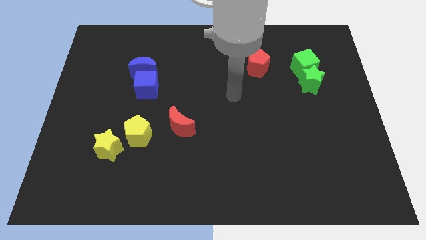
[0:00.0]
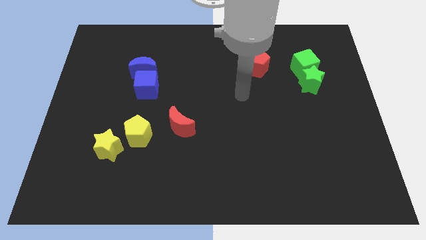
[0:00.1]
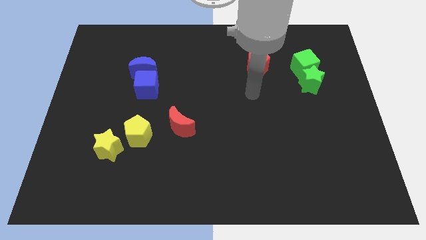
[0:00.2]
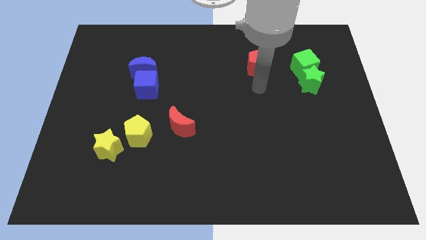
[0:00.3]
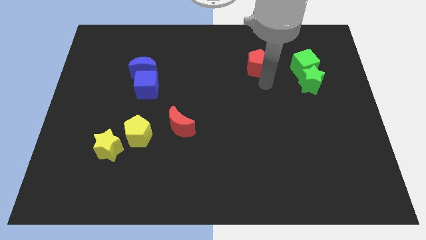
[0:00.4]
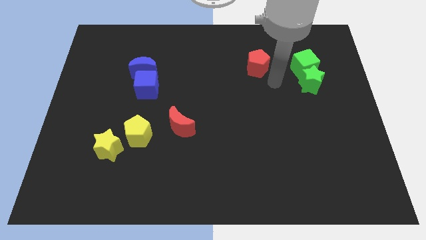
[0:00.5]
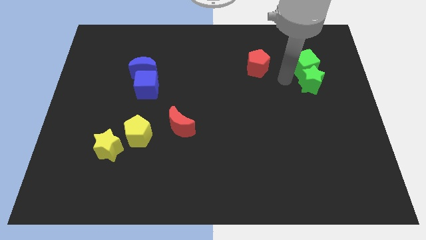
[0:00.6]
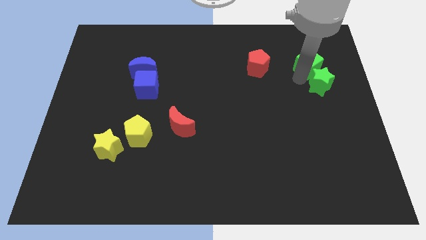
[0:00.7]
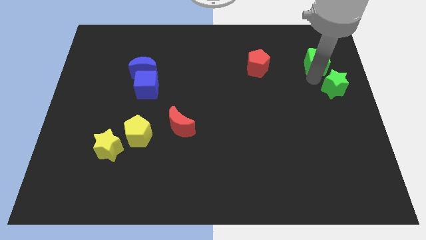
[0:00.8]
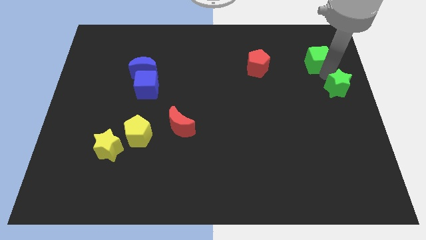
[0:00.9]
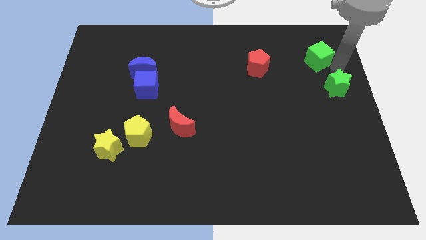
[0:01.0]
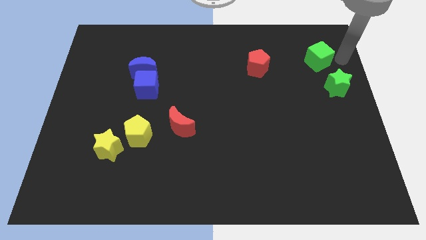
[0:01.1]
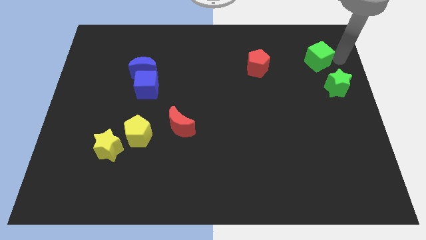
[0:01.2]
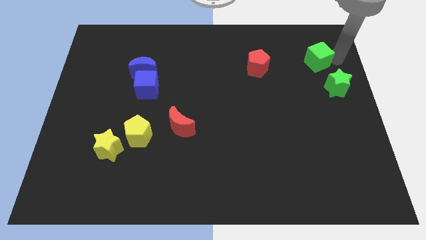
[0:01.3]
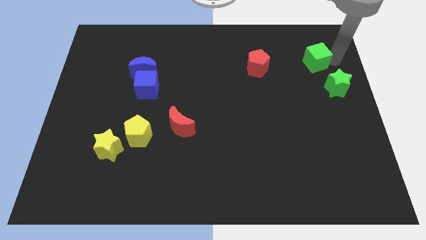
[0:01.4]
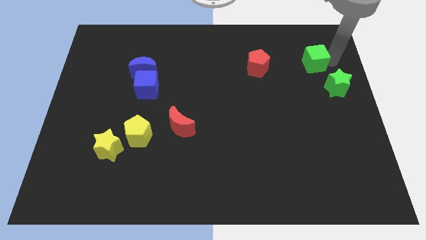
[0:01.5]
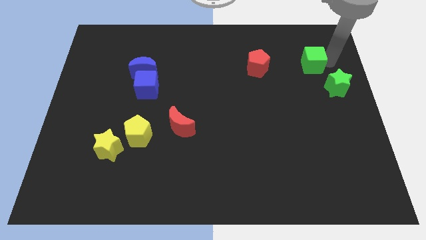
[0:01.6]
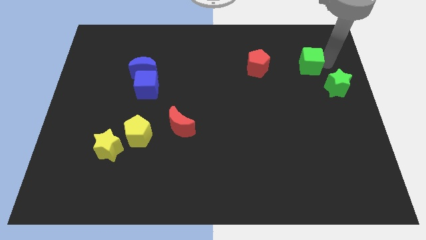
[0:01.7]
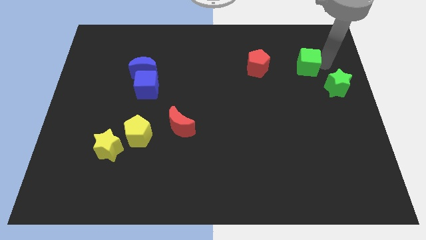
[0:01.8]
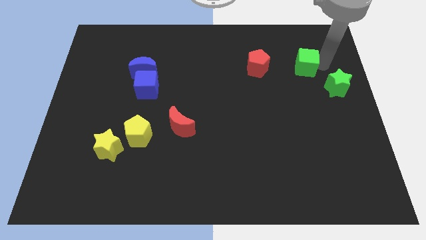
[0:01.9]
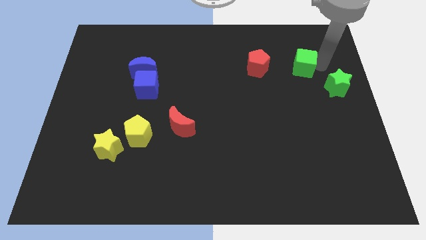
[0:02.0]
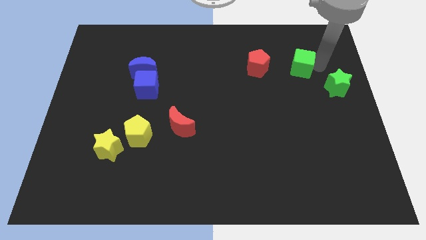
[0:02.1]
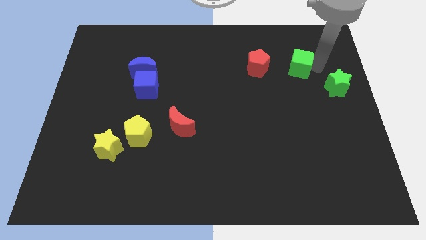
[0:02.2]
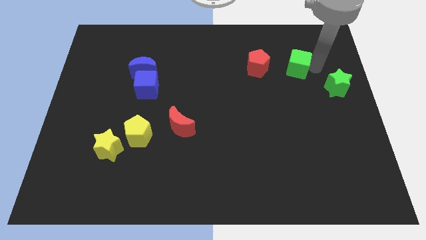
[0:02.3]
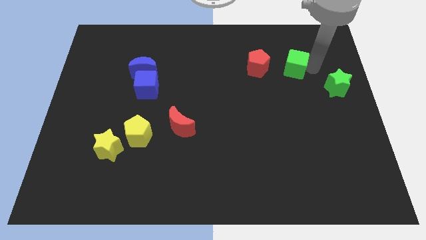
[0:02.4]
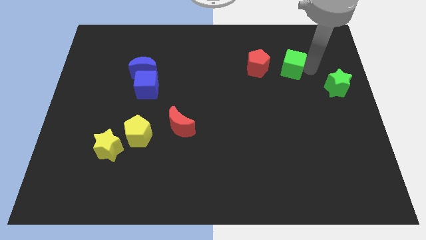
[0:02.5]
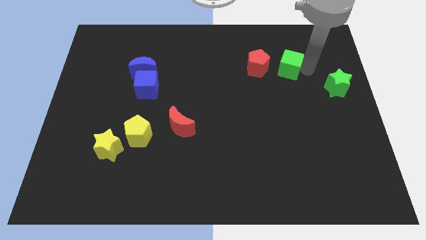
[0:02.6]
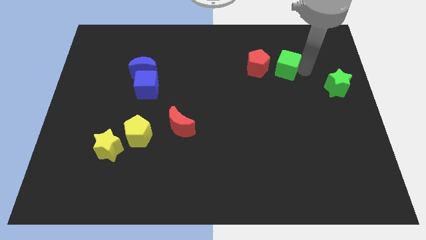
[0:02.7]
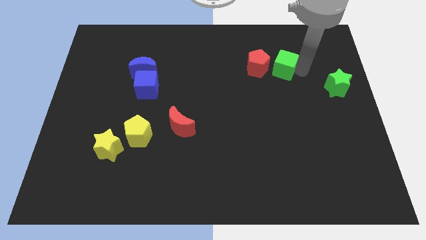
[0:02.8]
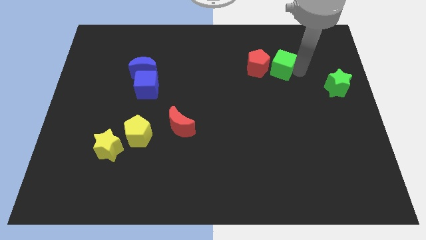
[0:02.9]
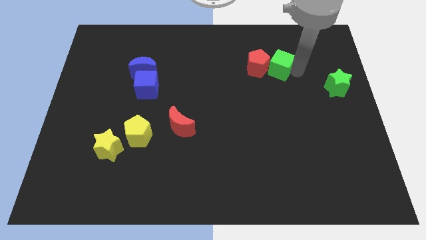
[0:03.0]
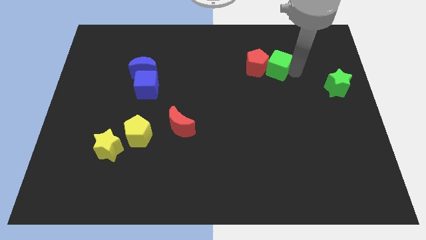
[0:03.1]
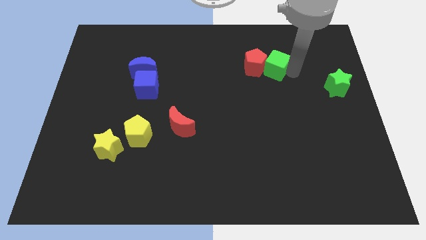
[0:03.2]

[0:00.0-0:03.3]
slide the green cube a little to the left

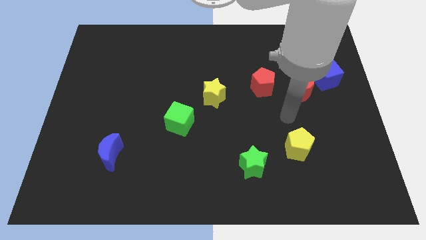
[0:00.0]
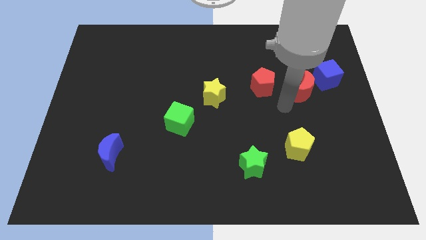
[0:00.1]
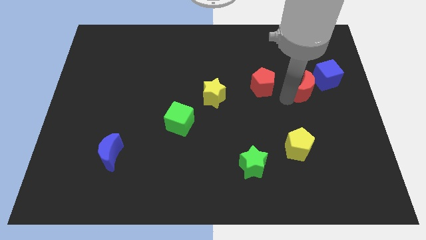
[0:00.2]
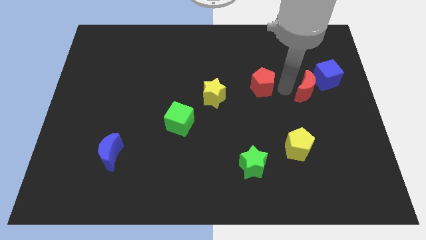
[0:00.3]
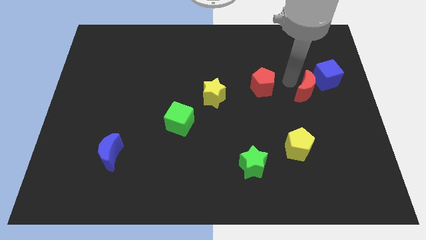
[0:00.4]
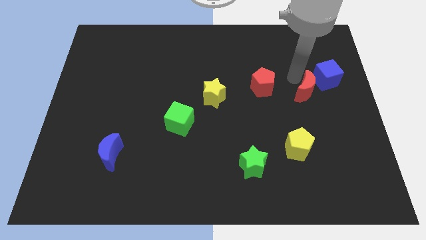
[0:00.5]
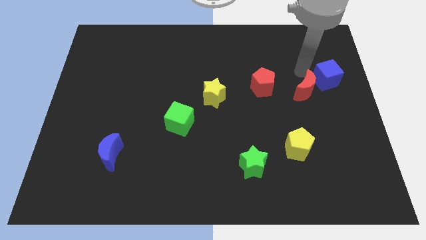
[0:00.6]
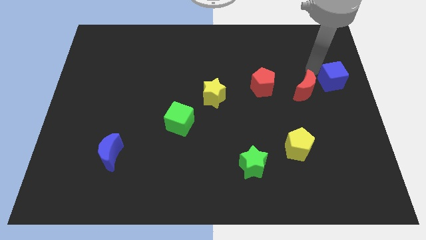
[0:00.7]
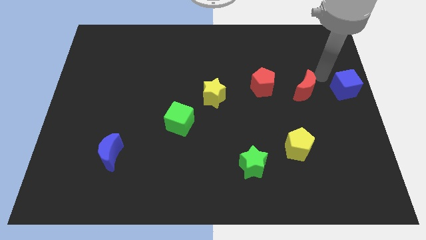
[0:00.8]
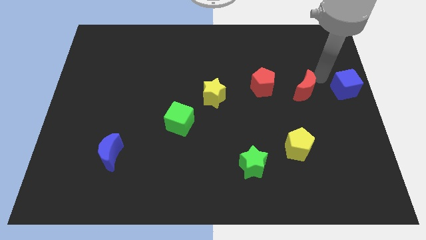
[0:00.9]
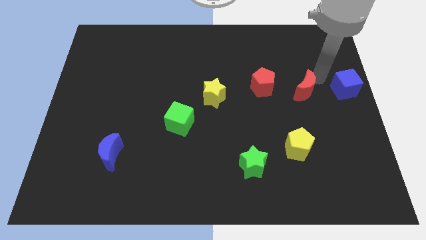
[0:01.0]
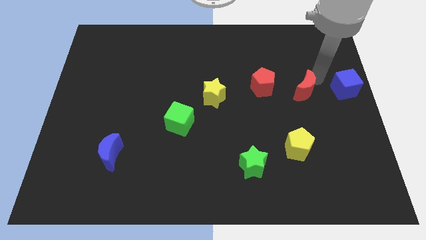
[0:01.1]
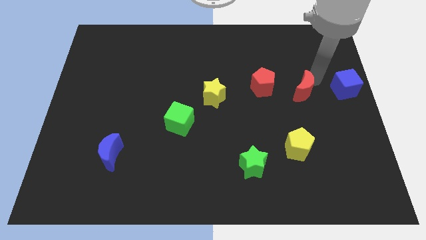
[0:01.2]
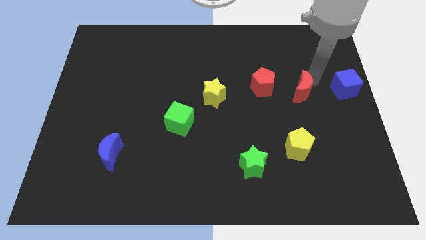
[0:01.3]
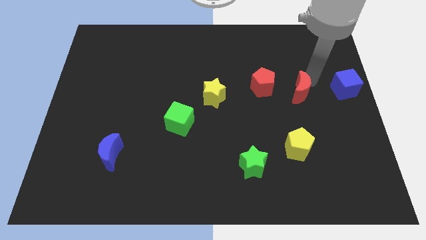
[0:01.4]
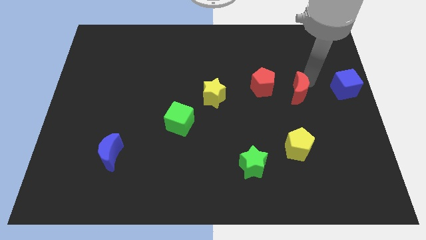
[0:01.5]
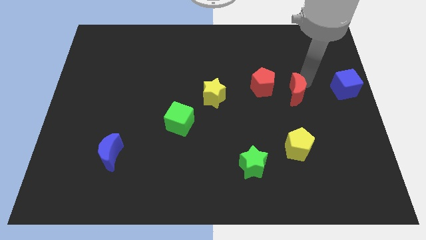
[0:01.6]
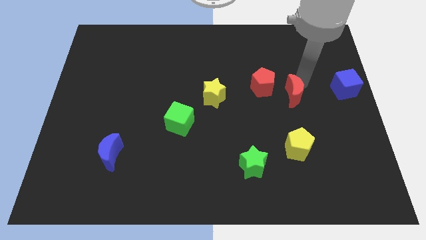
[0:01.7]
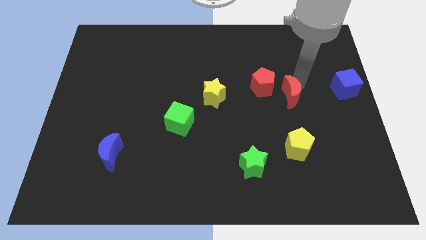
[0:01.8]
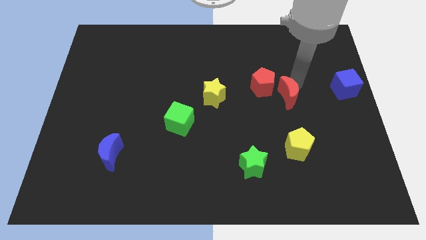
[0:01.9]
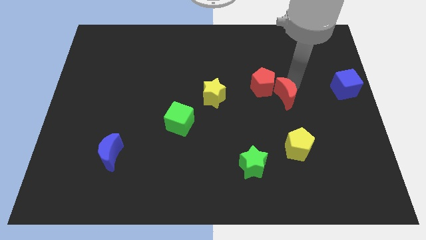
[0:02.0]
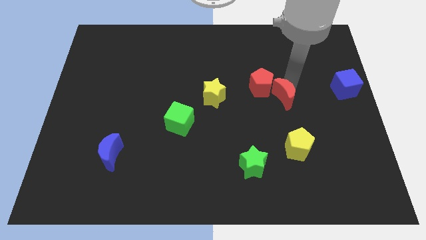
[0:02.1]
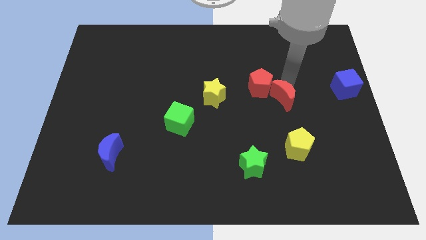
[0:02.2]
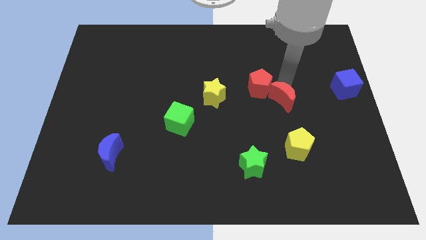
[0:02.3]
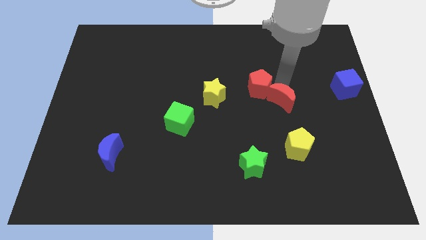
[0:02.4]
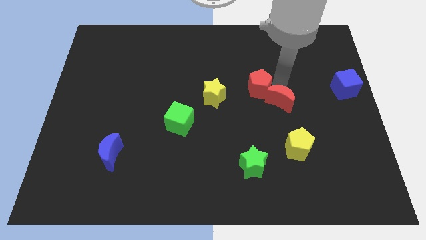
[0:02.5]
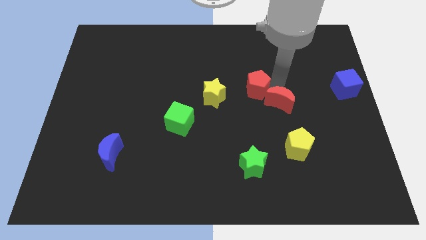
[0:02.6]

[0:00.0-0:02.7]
move the red moon somewhat down and to the left

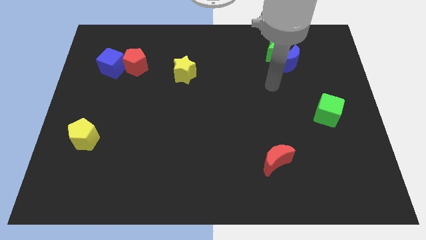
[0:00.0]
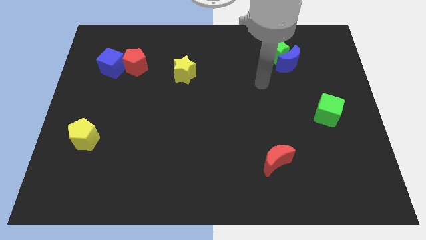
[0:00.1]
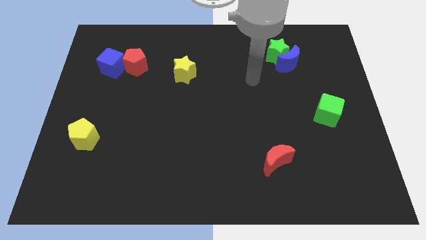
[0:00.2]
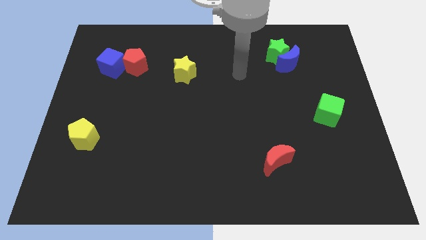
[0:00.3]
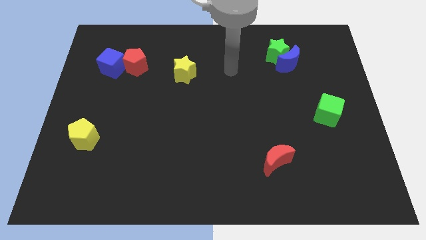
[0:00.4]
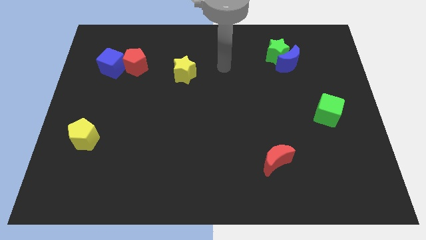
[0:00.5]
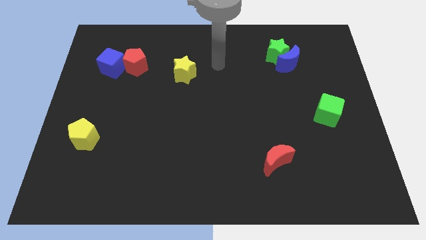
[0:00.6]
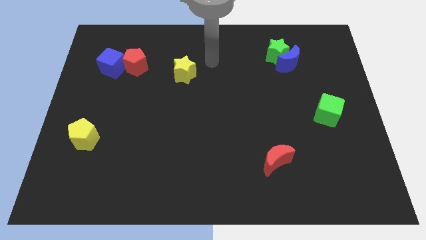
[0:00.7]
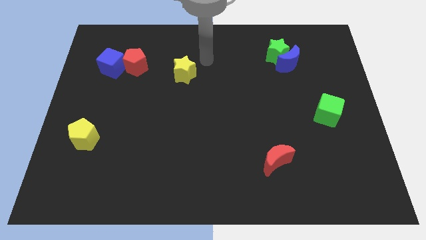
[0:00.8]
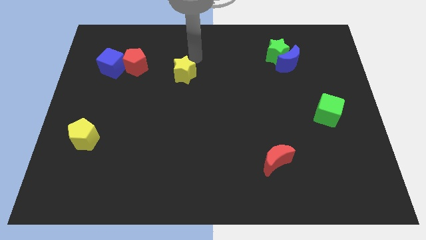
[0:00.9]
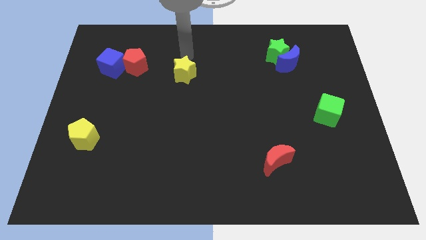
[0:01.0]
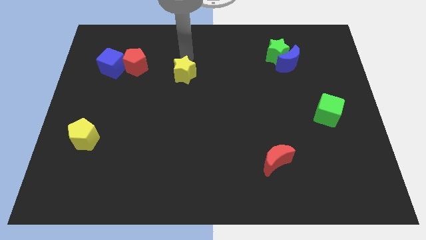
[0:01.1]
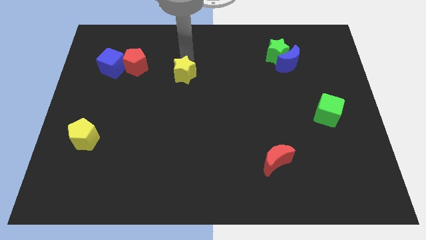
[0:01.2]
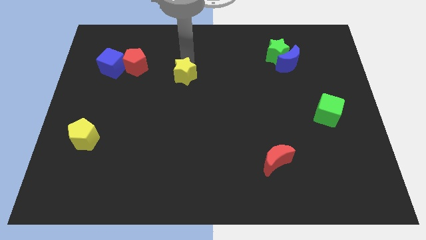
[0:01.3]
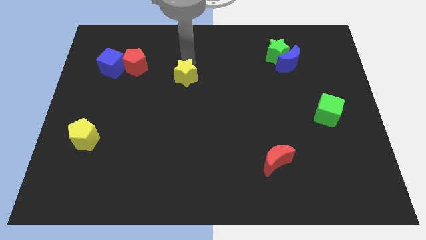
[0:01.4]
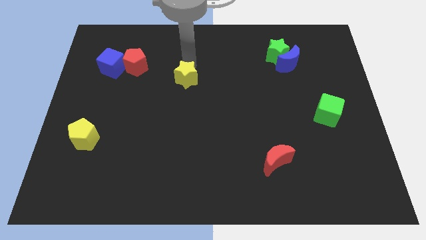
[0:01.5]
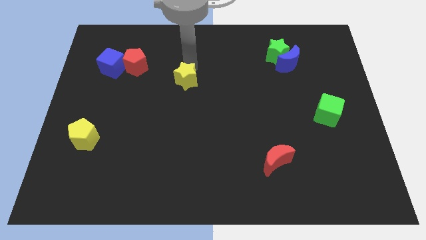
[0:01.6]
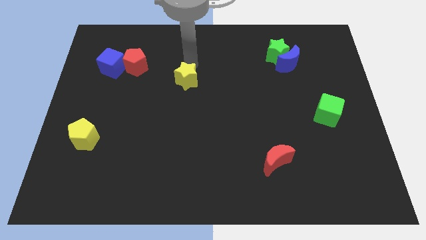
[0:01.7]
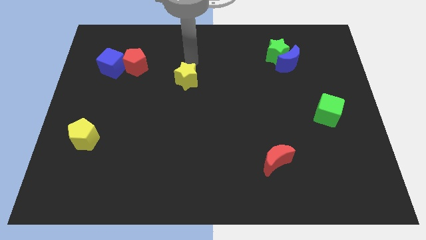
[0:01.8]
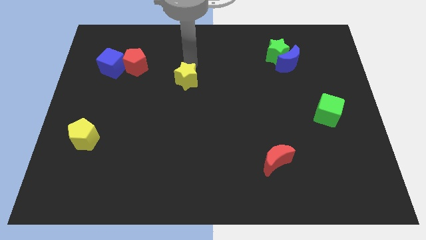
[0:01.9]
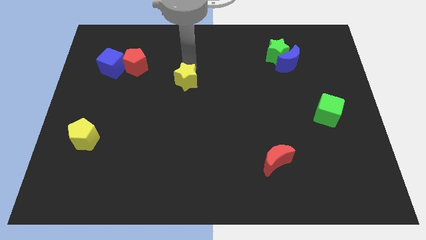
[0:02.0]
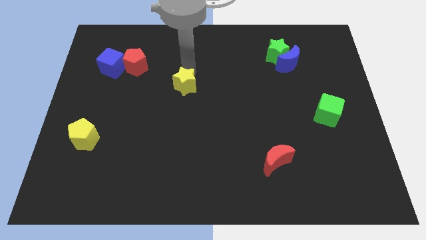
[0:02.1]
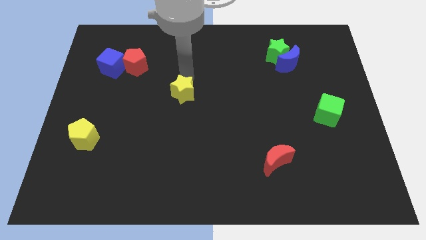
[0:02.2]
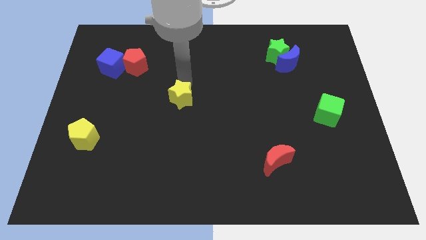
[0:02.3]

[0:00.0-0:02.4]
slide the yellow star a little bit down
